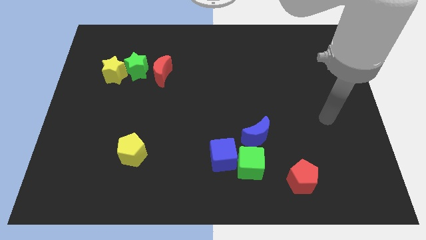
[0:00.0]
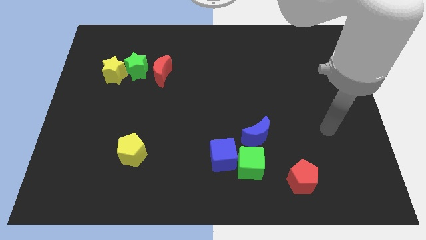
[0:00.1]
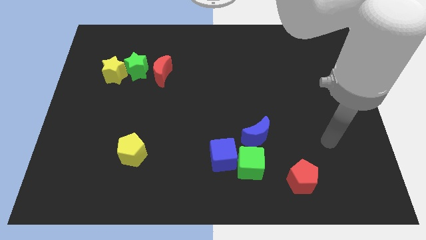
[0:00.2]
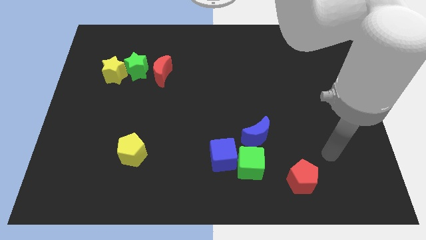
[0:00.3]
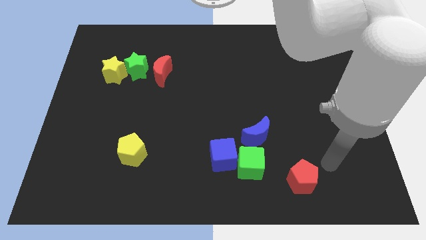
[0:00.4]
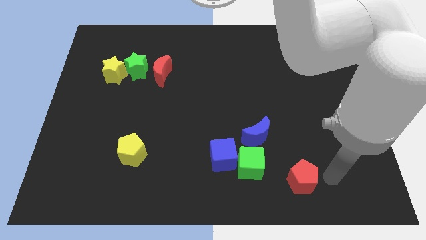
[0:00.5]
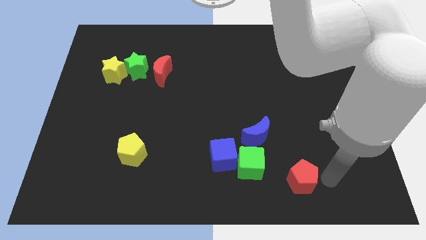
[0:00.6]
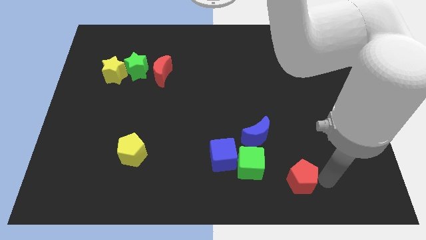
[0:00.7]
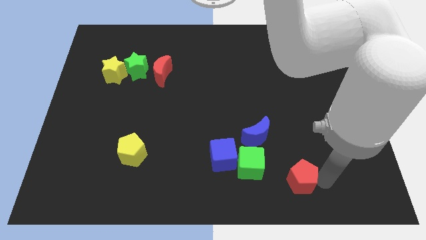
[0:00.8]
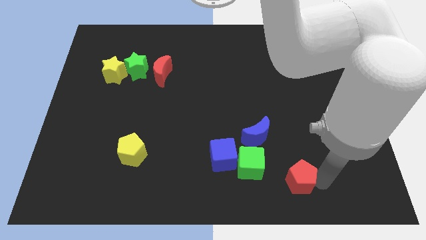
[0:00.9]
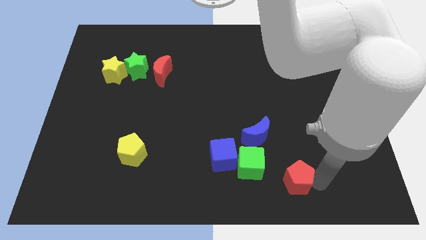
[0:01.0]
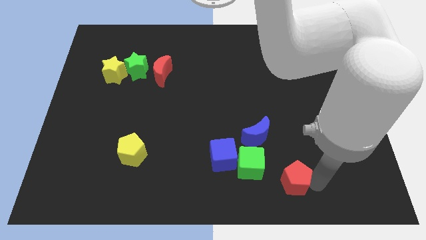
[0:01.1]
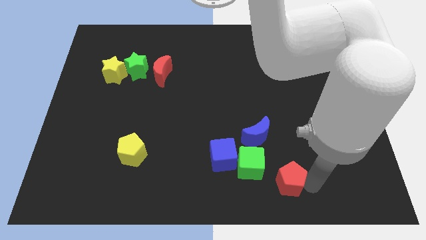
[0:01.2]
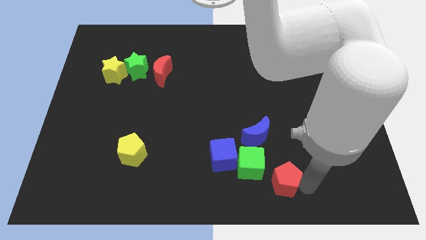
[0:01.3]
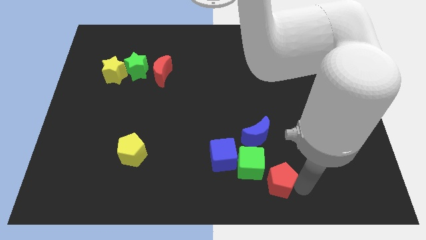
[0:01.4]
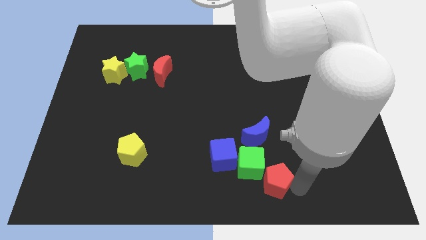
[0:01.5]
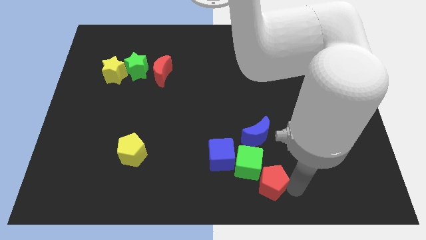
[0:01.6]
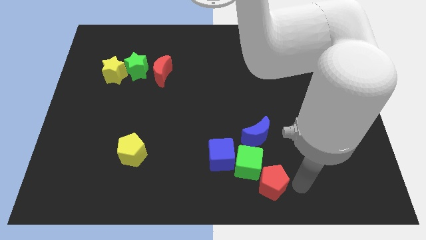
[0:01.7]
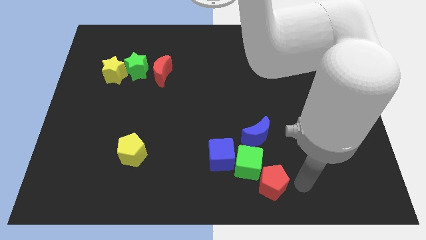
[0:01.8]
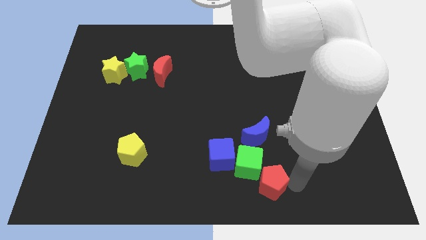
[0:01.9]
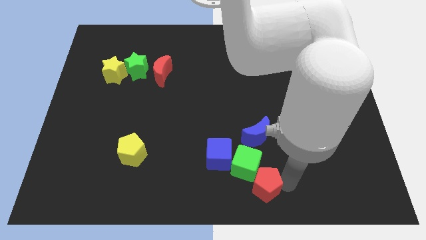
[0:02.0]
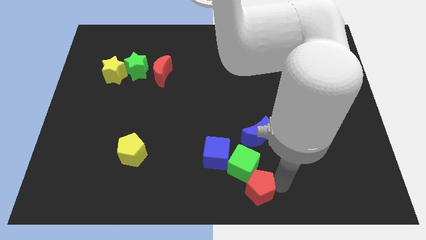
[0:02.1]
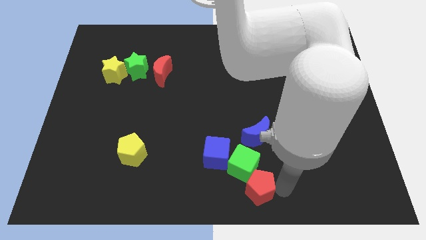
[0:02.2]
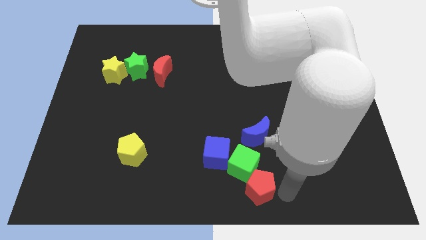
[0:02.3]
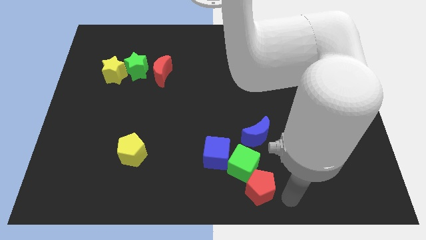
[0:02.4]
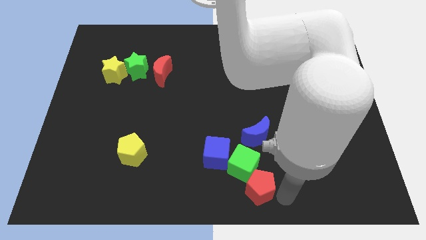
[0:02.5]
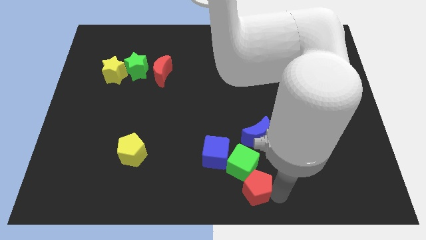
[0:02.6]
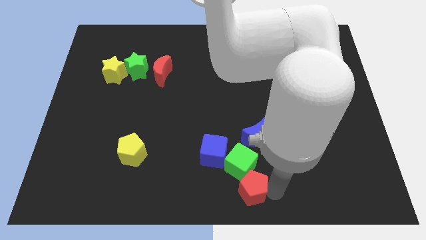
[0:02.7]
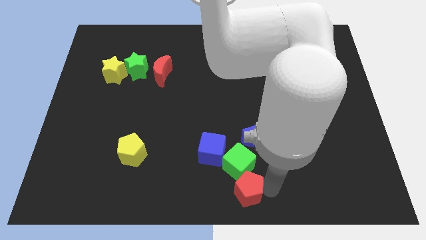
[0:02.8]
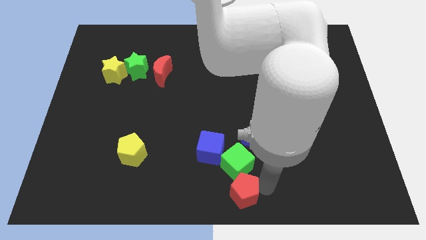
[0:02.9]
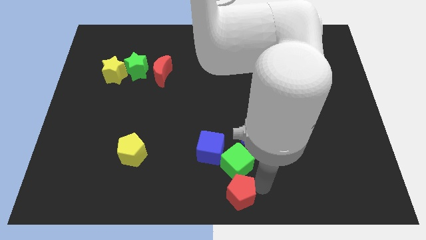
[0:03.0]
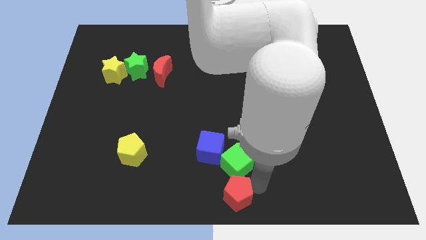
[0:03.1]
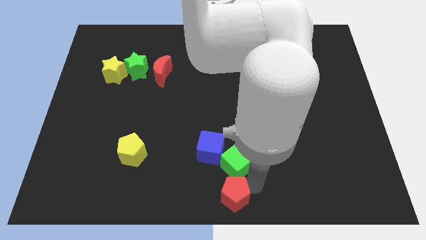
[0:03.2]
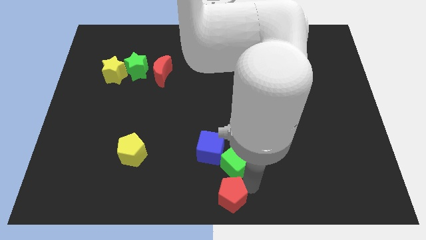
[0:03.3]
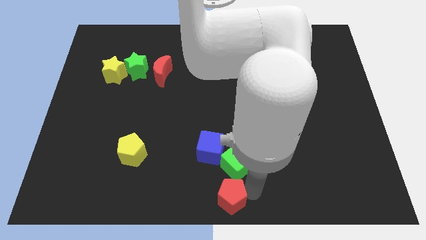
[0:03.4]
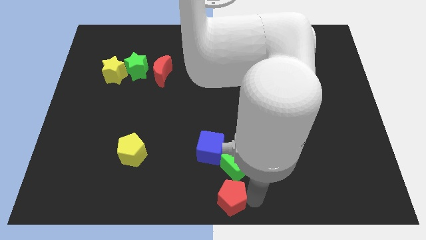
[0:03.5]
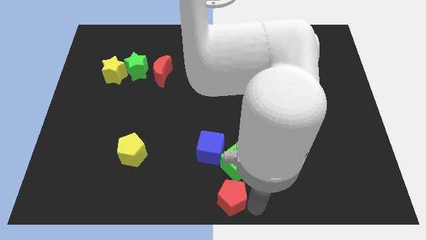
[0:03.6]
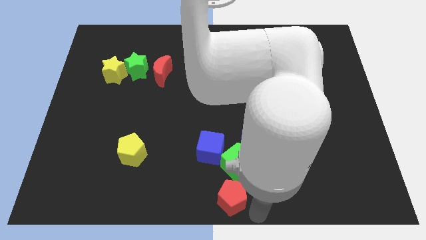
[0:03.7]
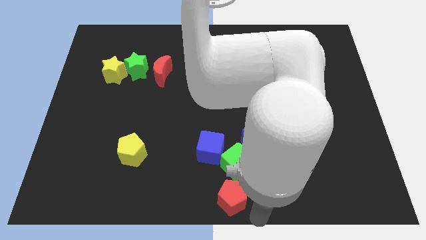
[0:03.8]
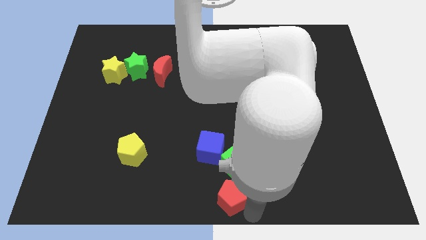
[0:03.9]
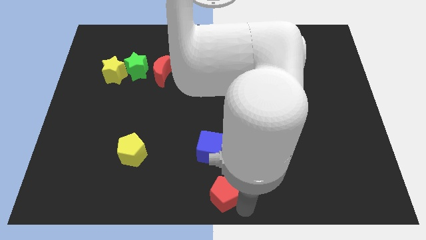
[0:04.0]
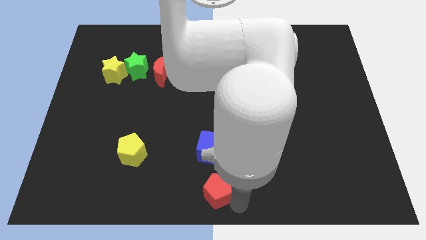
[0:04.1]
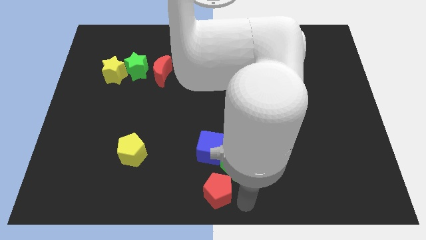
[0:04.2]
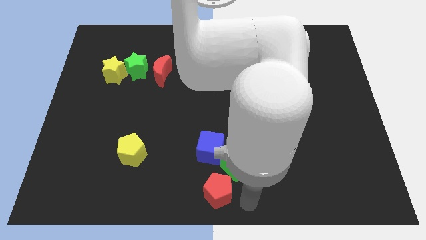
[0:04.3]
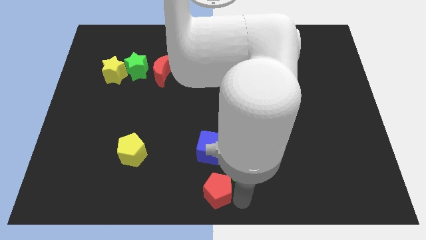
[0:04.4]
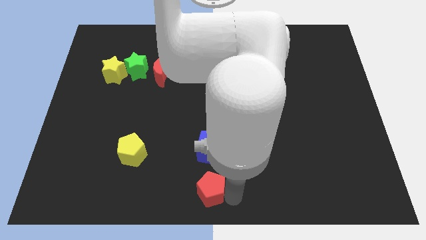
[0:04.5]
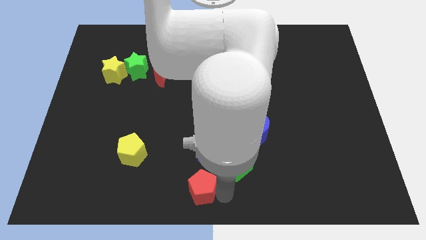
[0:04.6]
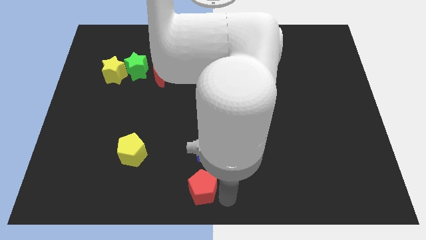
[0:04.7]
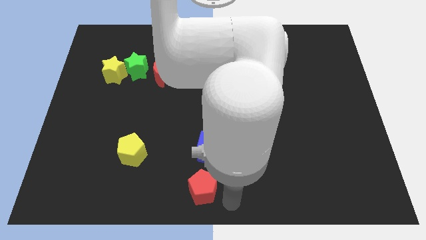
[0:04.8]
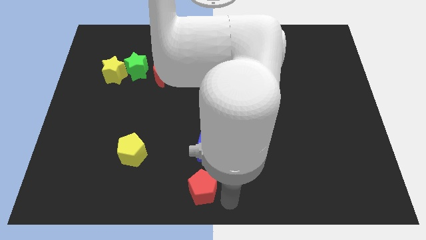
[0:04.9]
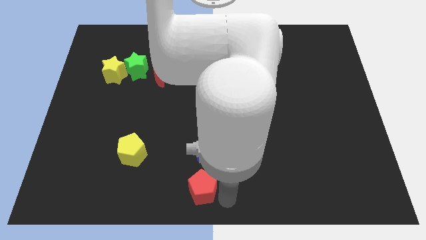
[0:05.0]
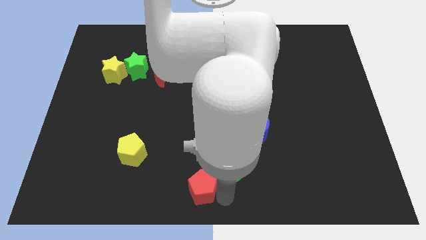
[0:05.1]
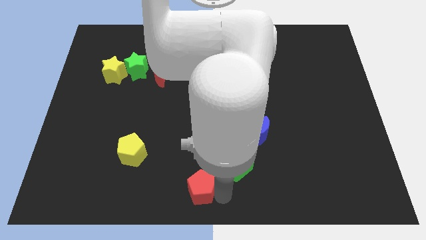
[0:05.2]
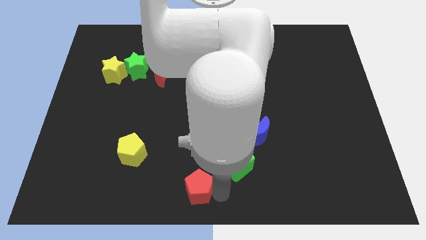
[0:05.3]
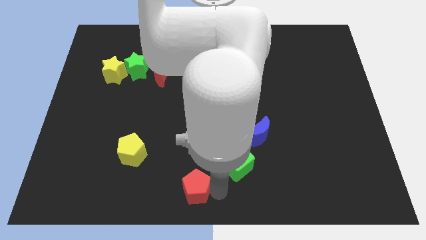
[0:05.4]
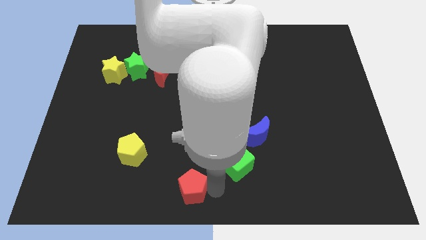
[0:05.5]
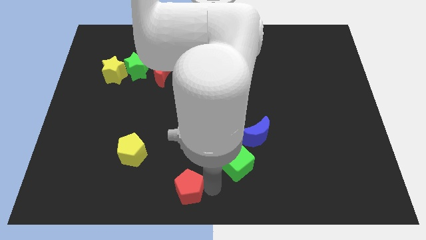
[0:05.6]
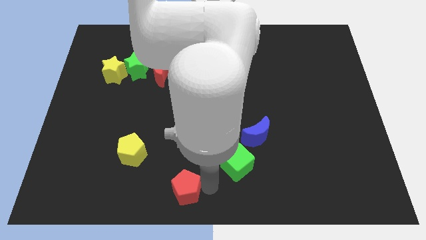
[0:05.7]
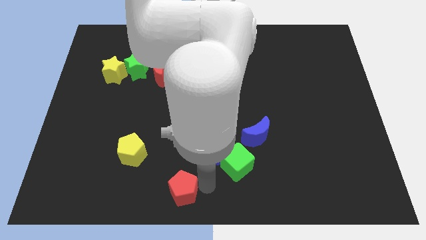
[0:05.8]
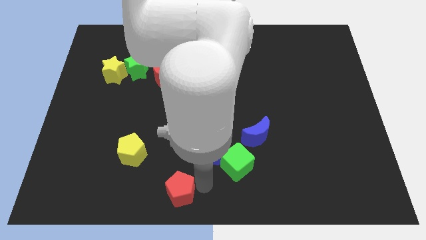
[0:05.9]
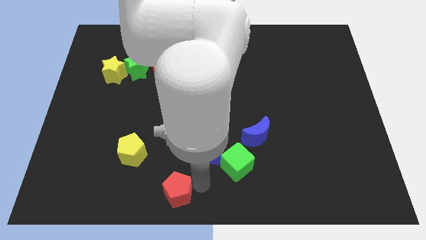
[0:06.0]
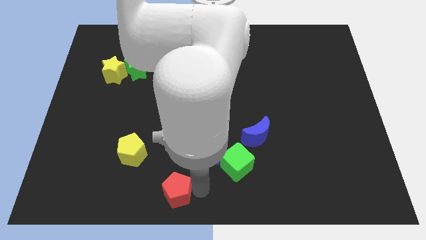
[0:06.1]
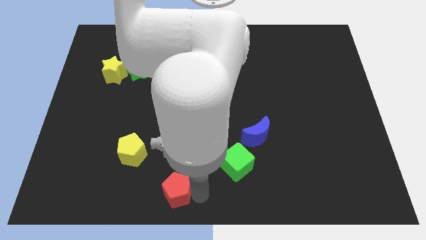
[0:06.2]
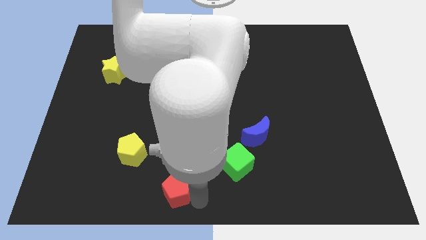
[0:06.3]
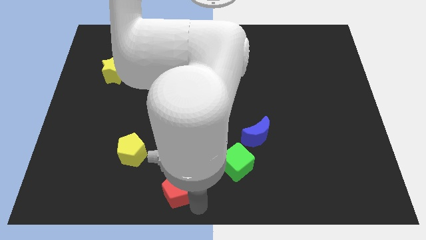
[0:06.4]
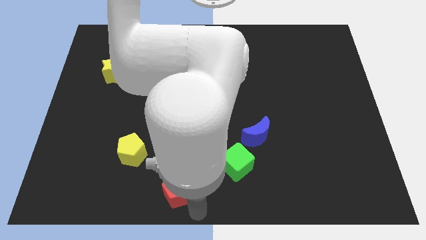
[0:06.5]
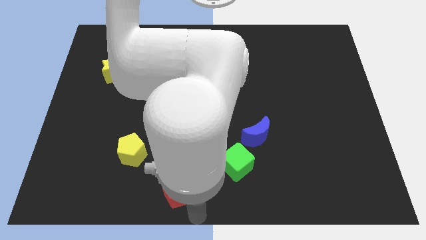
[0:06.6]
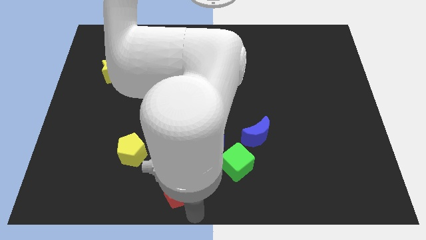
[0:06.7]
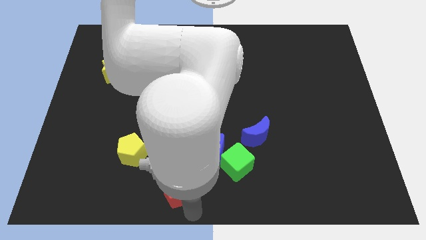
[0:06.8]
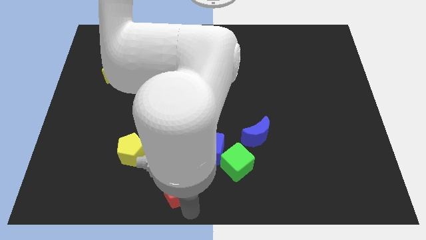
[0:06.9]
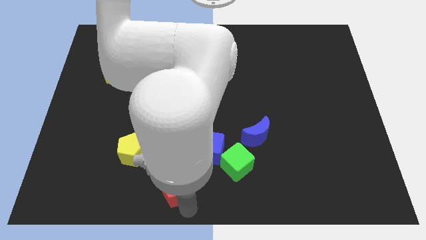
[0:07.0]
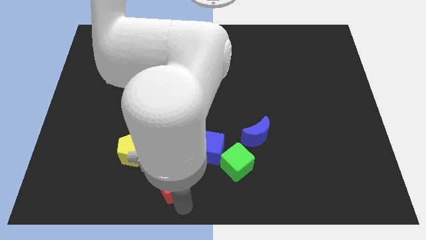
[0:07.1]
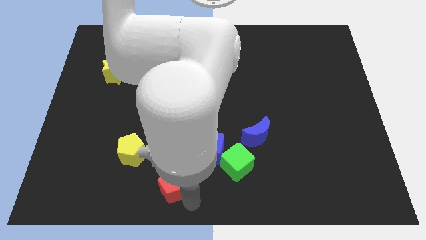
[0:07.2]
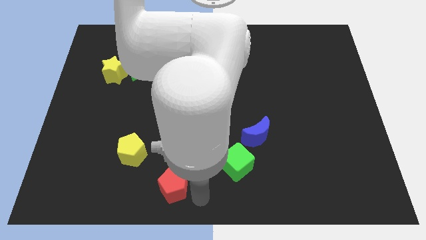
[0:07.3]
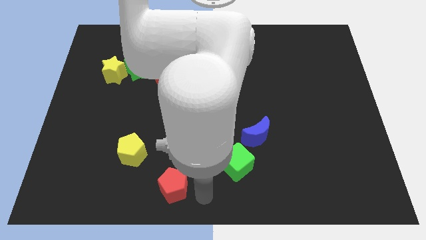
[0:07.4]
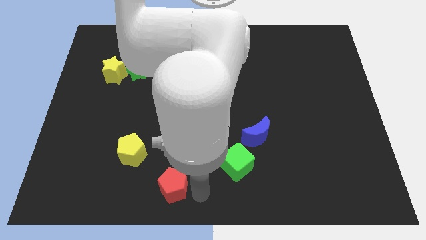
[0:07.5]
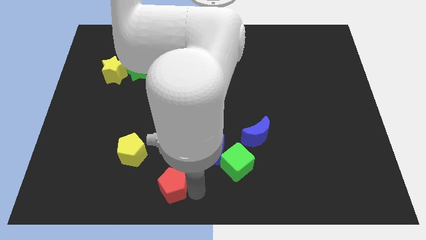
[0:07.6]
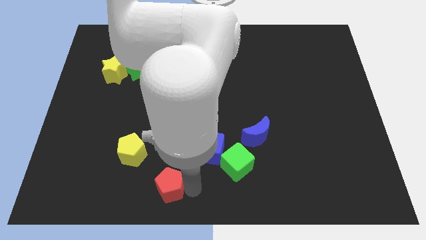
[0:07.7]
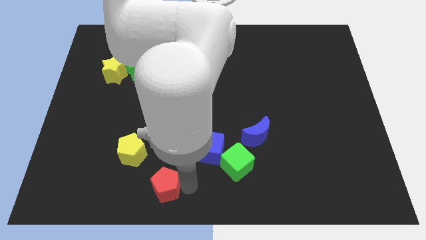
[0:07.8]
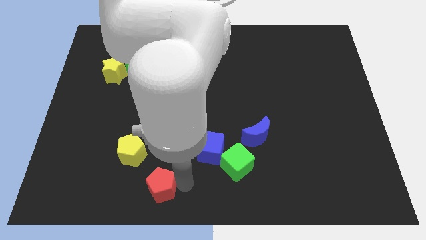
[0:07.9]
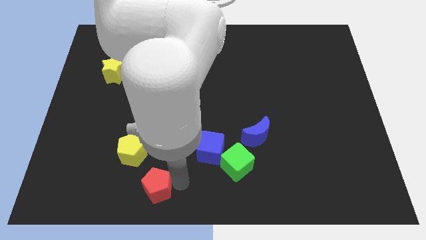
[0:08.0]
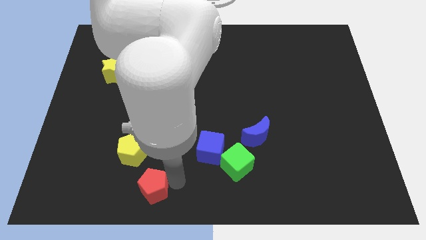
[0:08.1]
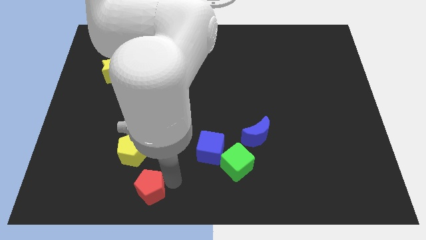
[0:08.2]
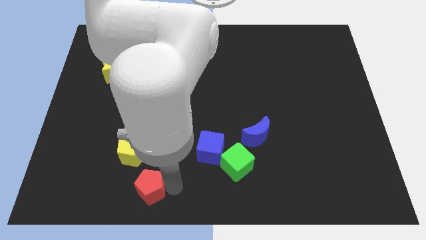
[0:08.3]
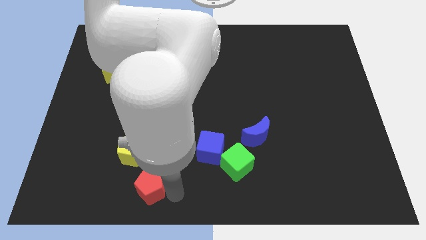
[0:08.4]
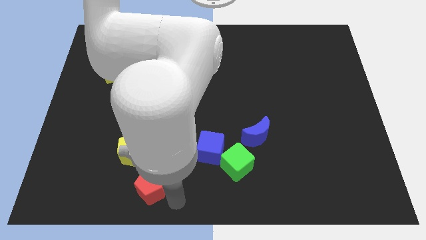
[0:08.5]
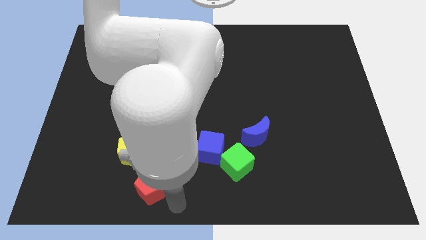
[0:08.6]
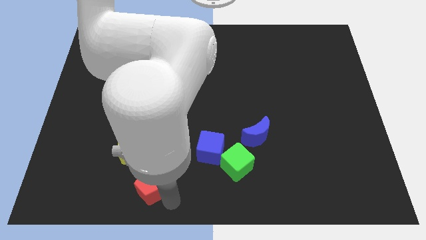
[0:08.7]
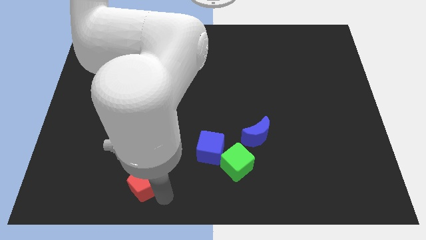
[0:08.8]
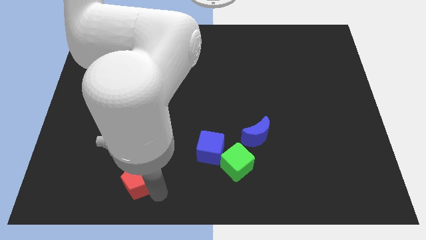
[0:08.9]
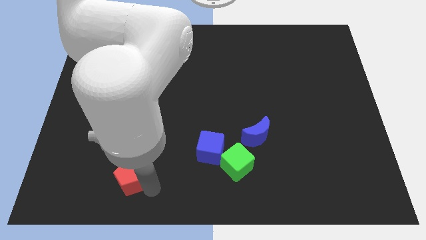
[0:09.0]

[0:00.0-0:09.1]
slide the red pentagon to the bottom left of the yellow pentagon
